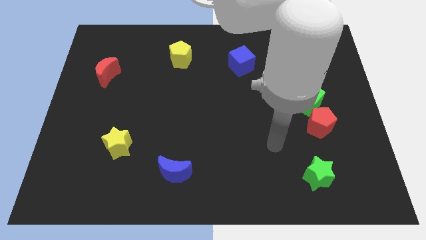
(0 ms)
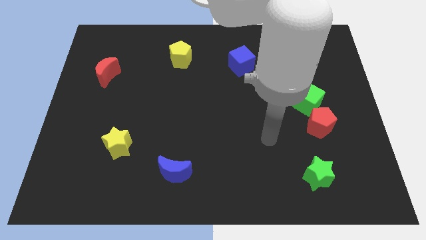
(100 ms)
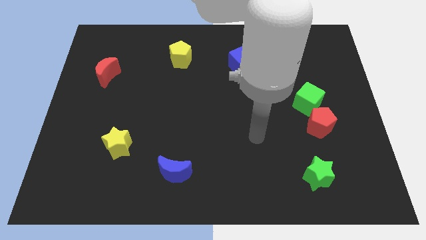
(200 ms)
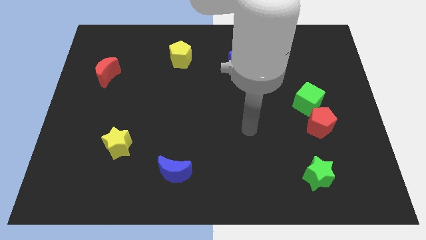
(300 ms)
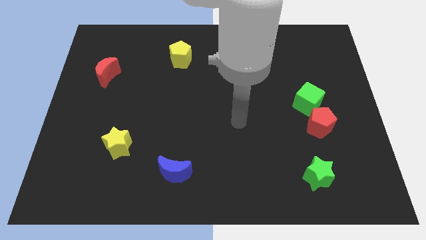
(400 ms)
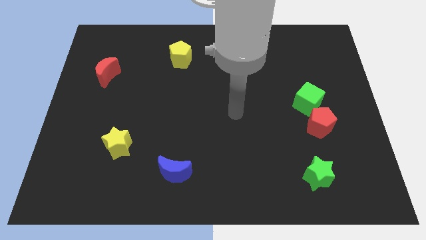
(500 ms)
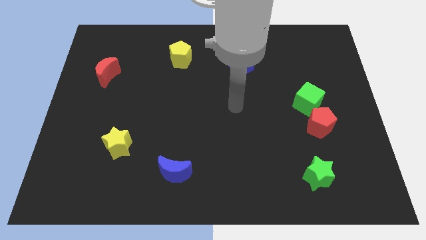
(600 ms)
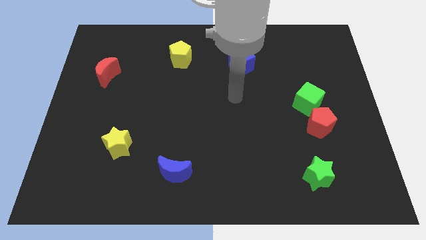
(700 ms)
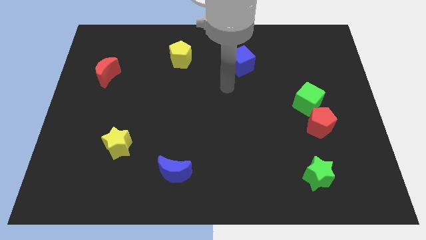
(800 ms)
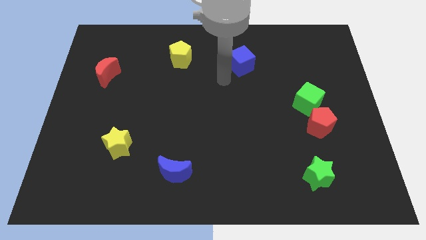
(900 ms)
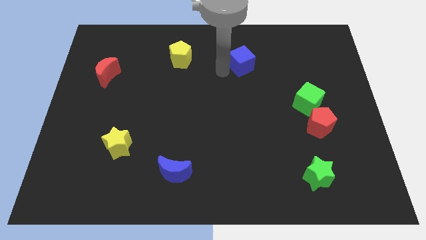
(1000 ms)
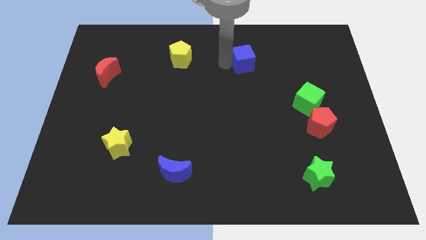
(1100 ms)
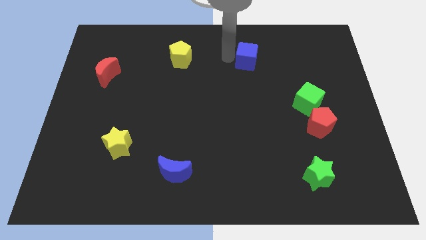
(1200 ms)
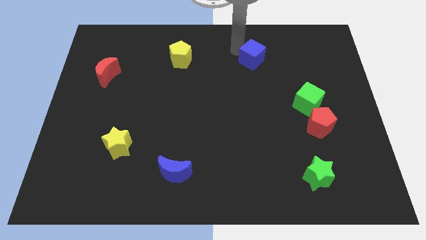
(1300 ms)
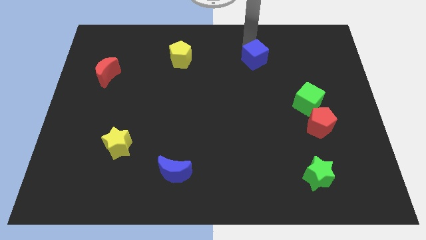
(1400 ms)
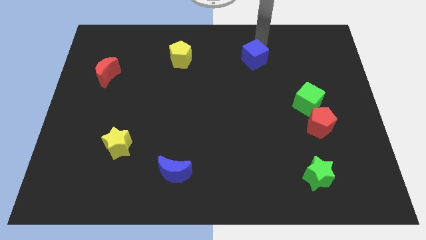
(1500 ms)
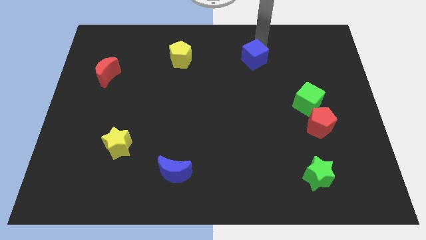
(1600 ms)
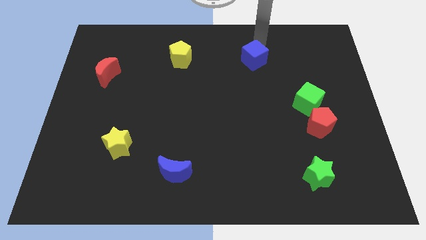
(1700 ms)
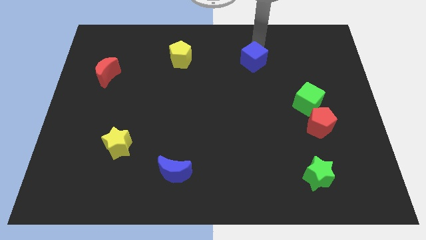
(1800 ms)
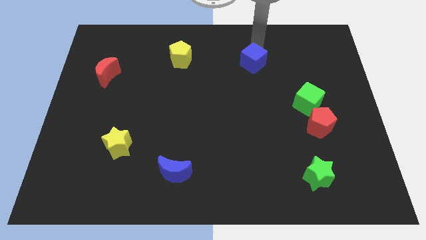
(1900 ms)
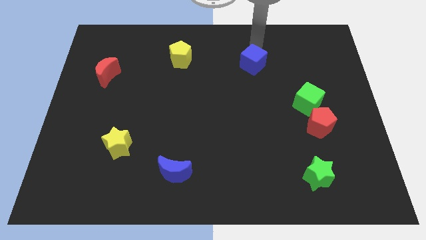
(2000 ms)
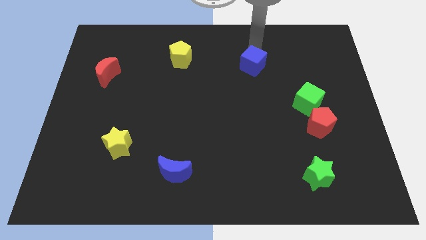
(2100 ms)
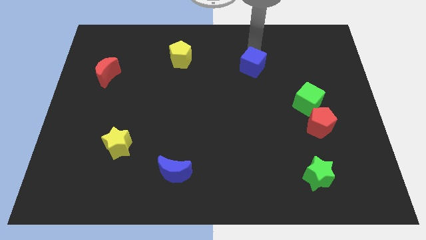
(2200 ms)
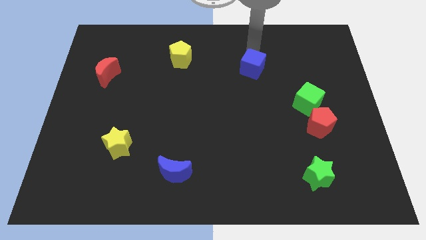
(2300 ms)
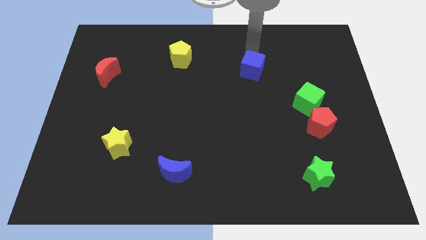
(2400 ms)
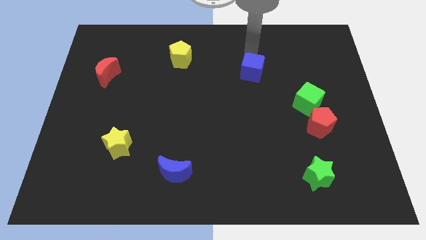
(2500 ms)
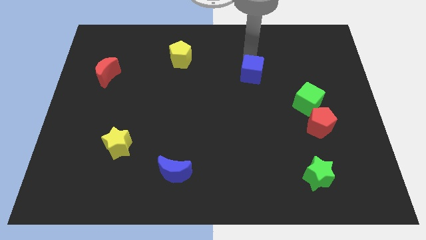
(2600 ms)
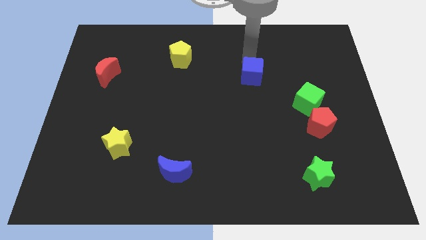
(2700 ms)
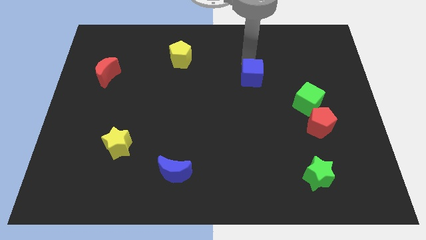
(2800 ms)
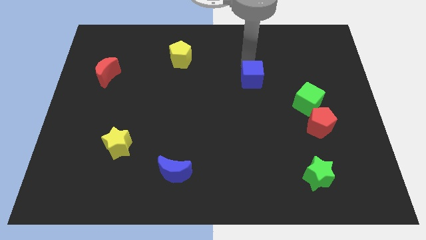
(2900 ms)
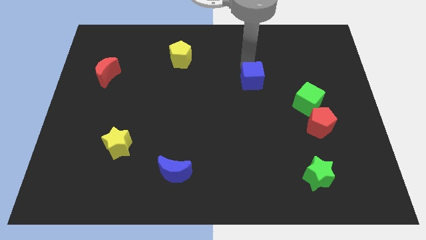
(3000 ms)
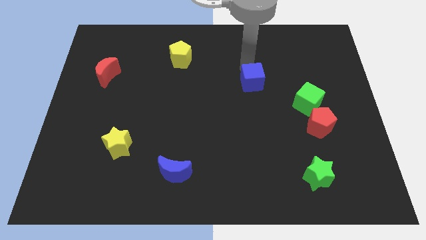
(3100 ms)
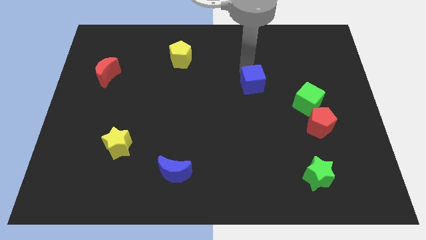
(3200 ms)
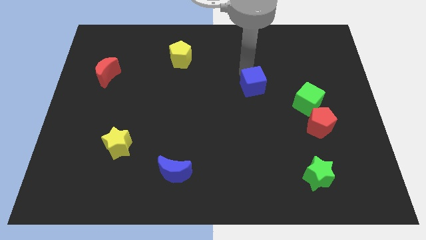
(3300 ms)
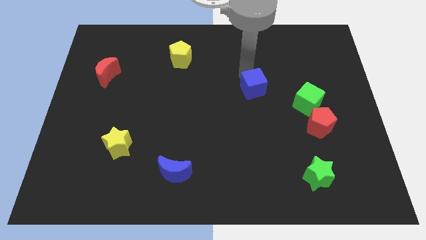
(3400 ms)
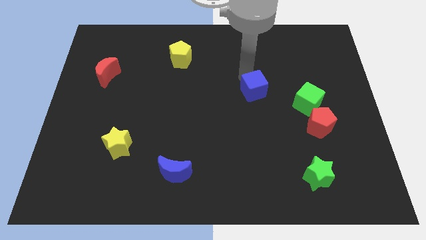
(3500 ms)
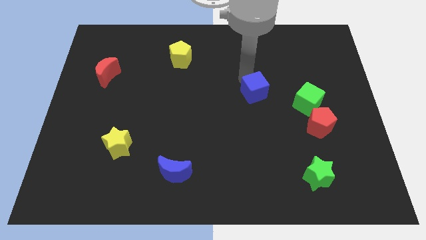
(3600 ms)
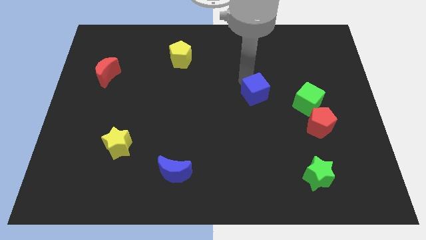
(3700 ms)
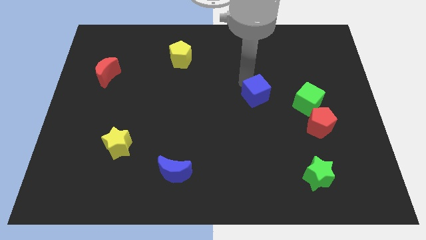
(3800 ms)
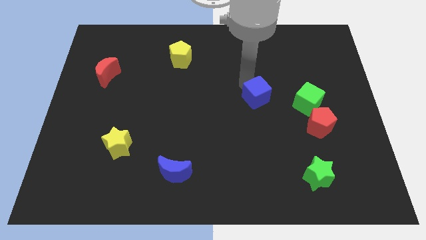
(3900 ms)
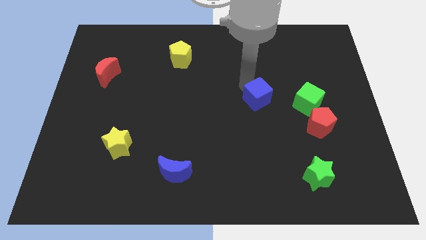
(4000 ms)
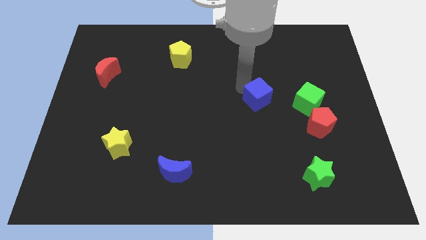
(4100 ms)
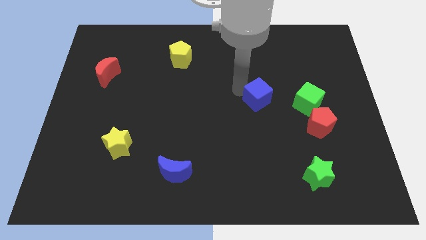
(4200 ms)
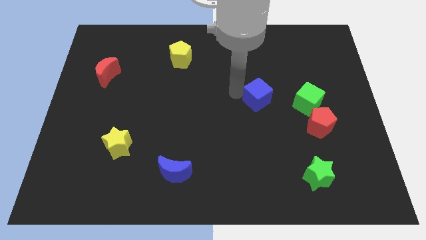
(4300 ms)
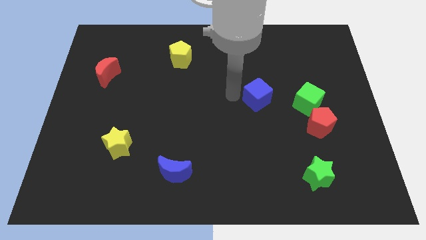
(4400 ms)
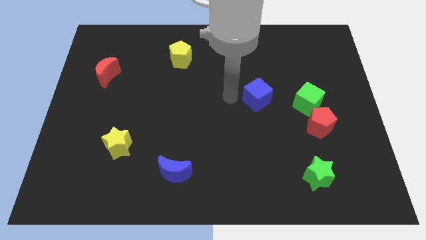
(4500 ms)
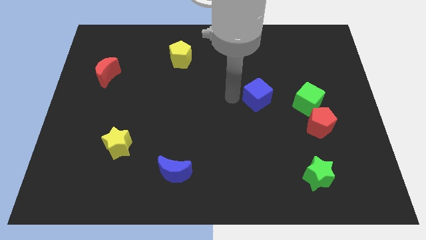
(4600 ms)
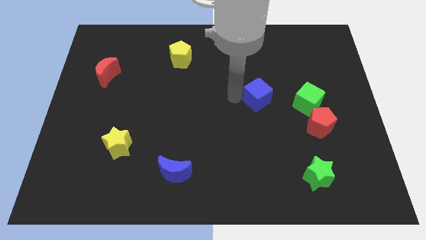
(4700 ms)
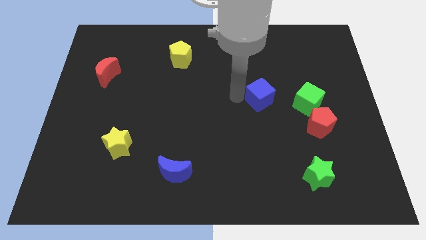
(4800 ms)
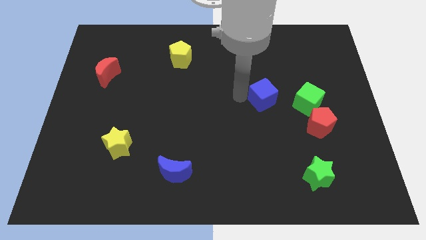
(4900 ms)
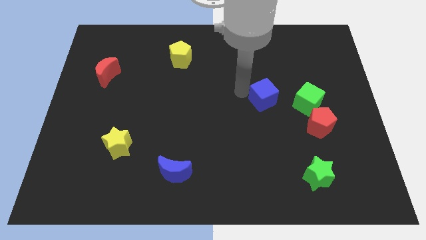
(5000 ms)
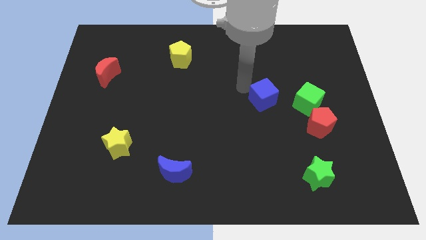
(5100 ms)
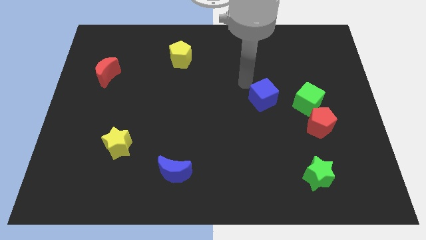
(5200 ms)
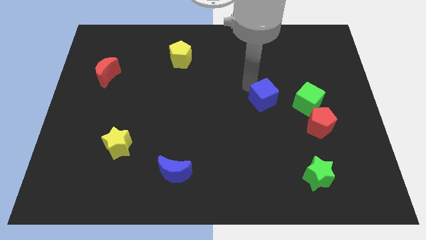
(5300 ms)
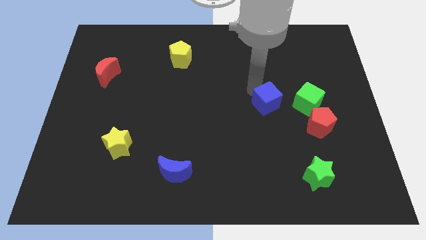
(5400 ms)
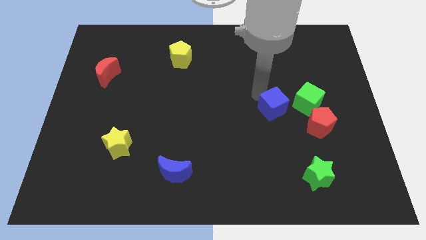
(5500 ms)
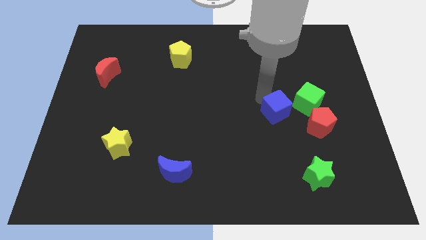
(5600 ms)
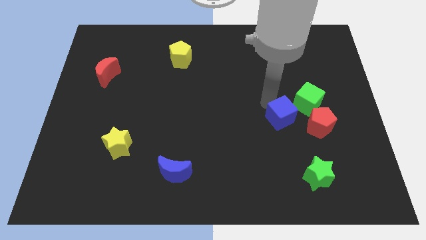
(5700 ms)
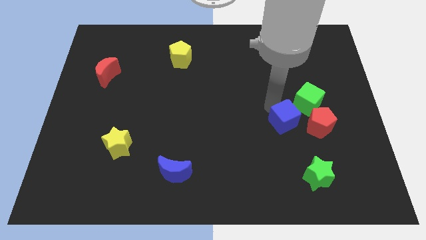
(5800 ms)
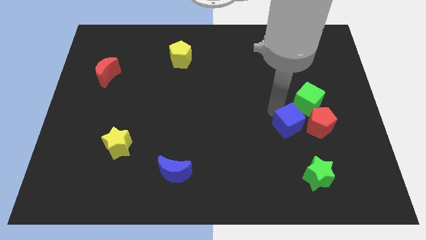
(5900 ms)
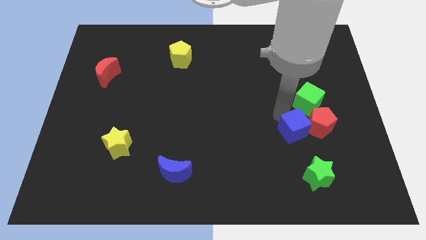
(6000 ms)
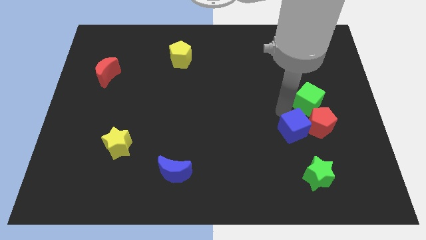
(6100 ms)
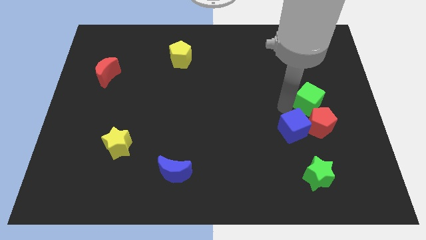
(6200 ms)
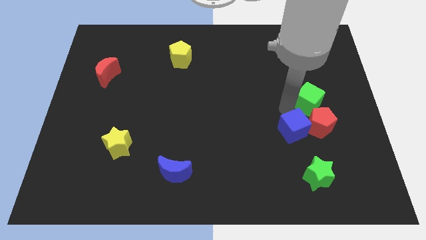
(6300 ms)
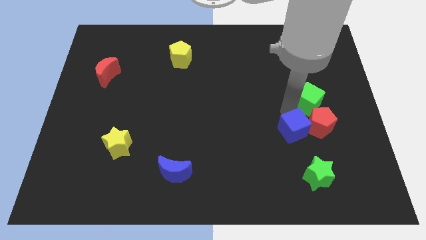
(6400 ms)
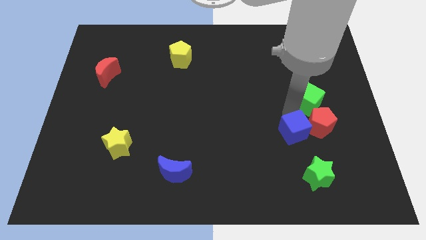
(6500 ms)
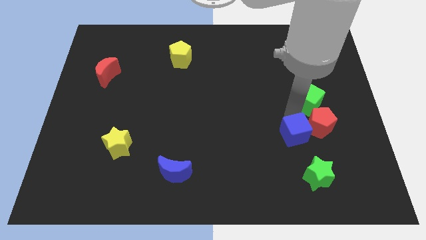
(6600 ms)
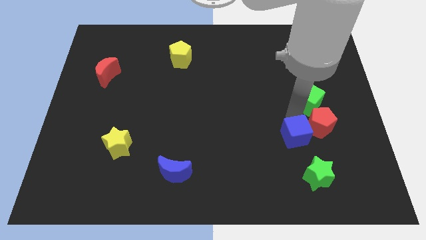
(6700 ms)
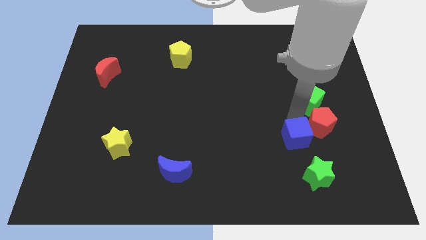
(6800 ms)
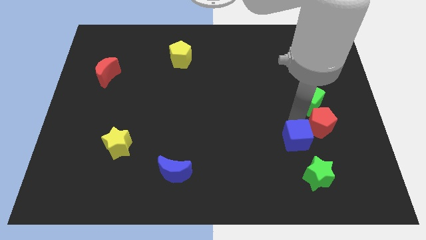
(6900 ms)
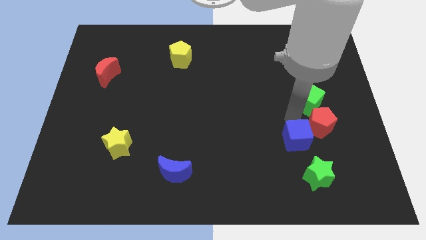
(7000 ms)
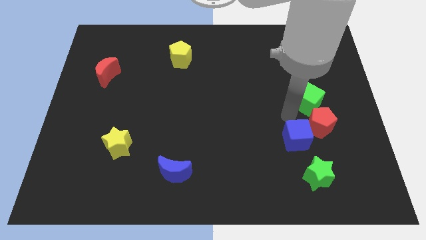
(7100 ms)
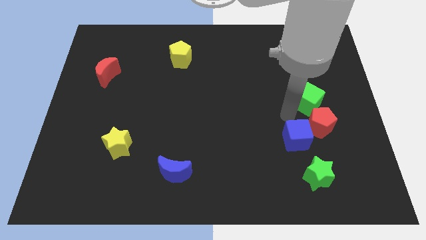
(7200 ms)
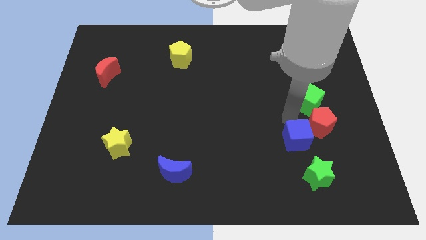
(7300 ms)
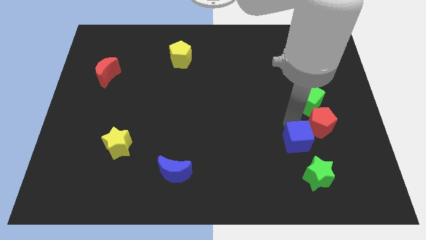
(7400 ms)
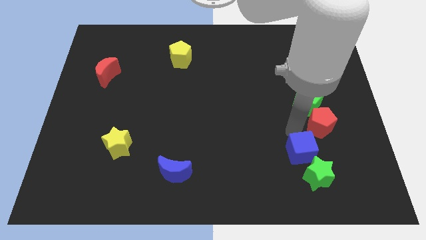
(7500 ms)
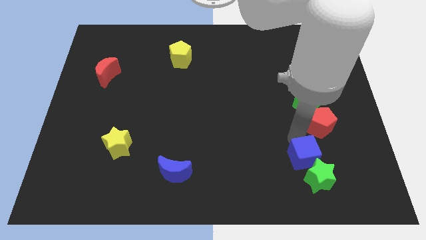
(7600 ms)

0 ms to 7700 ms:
push the blue cube towards the green star
